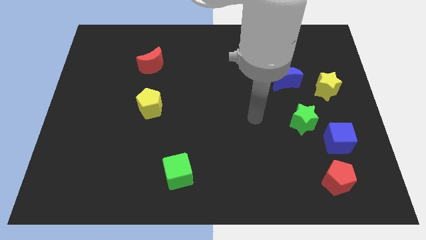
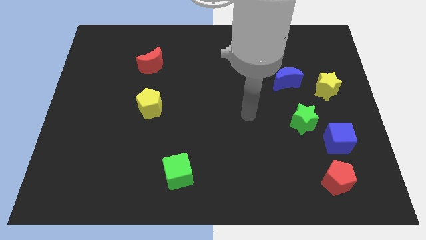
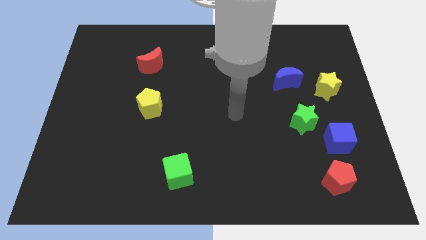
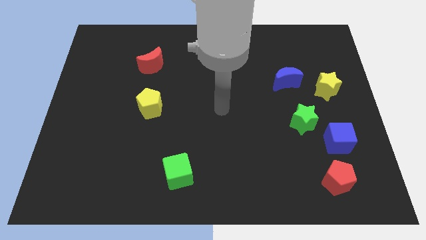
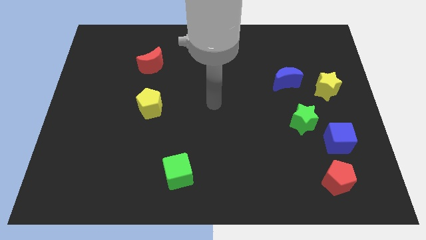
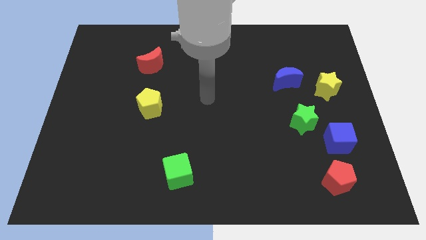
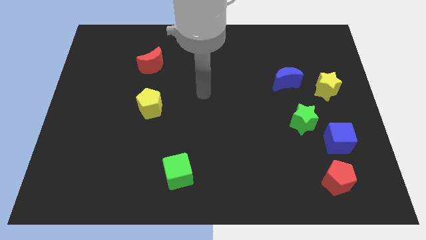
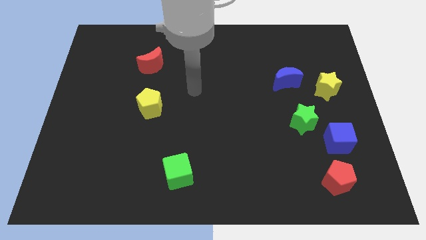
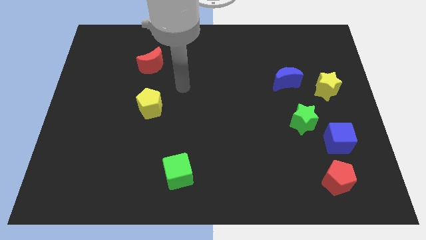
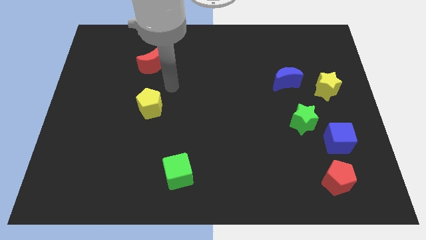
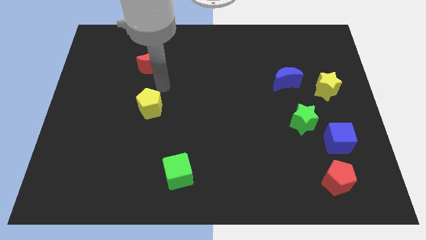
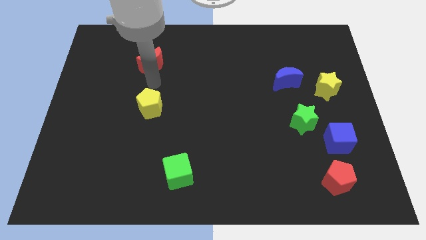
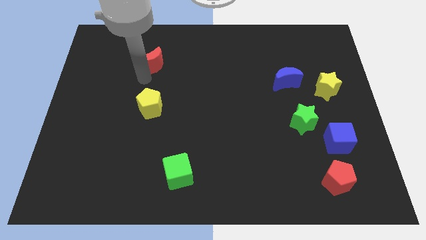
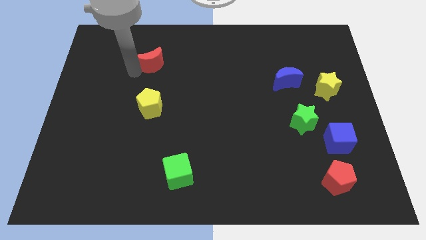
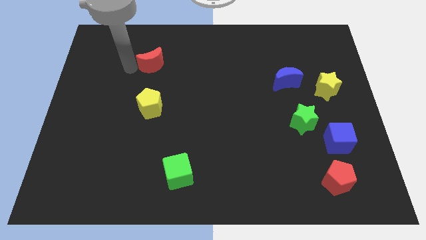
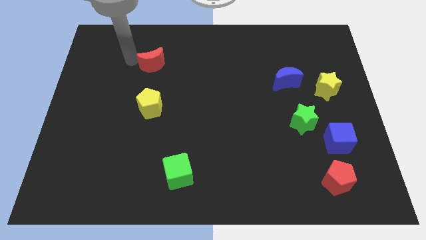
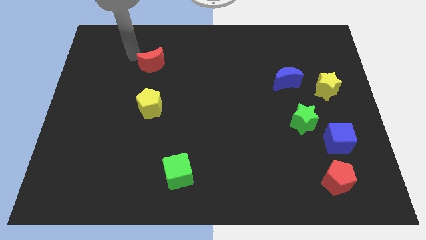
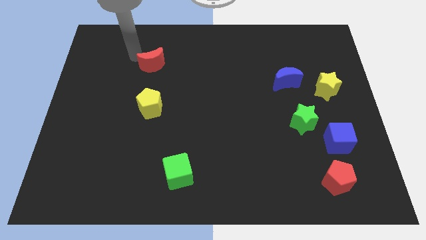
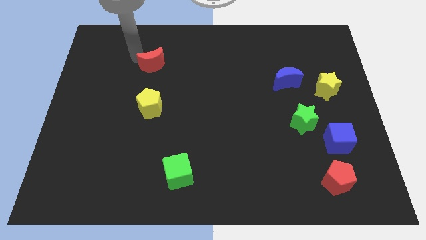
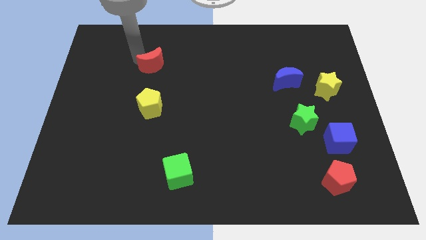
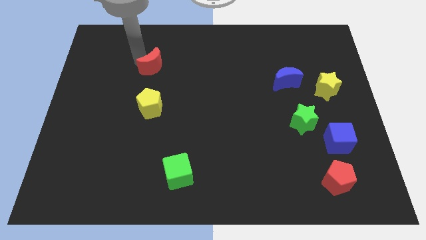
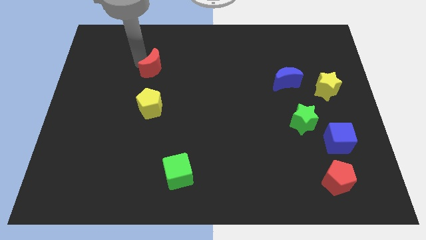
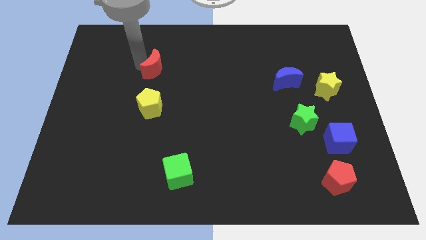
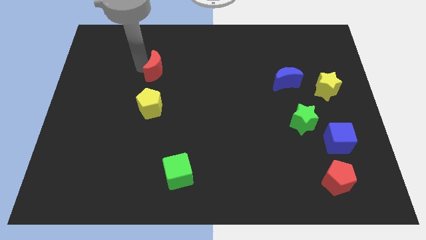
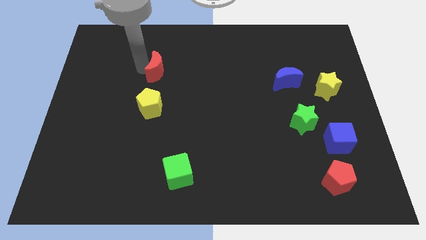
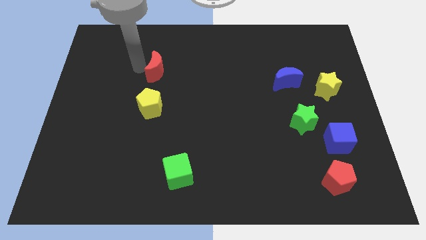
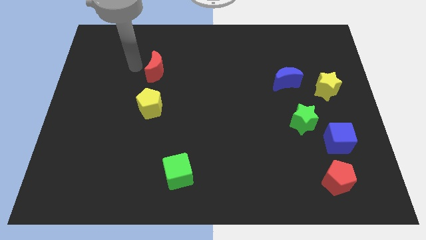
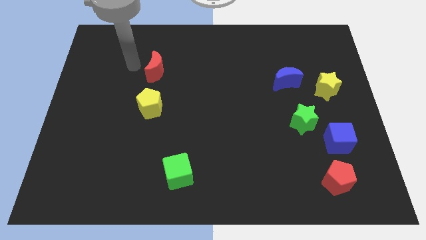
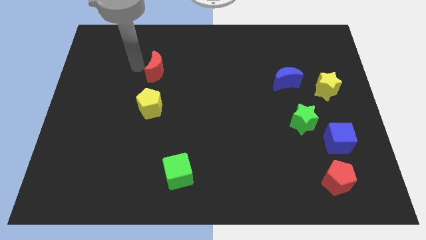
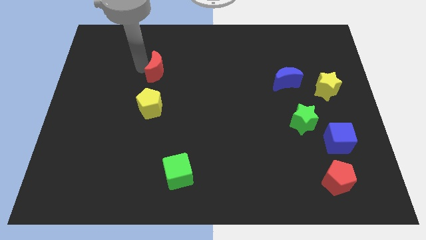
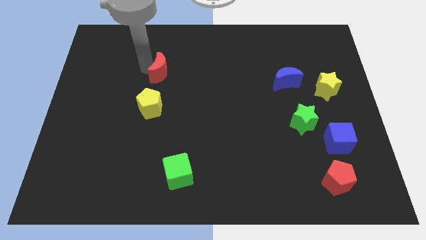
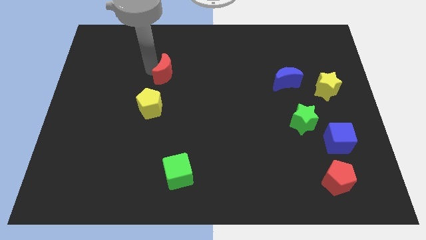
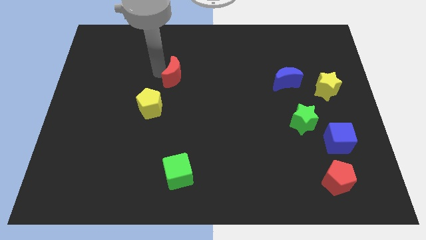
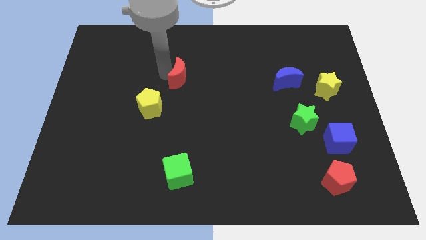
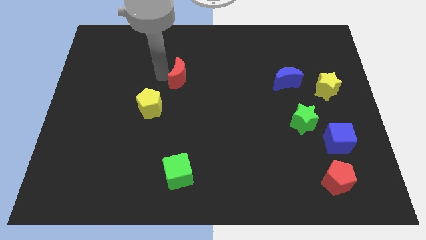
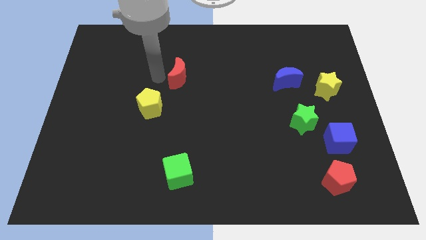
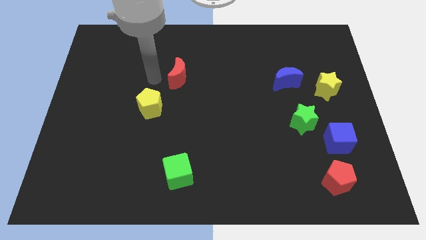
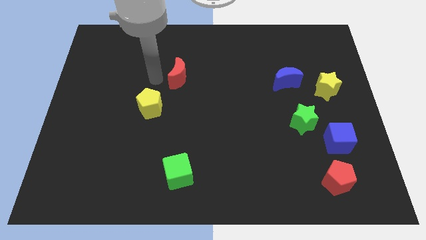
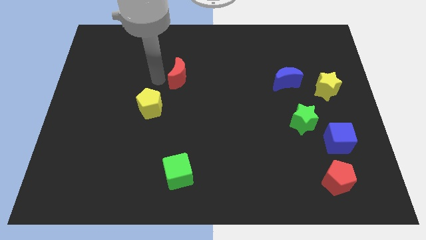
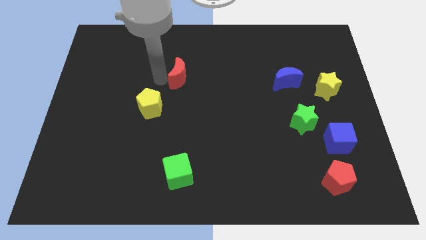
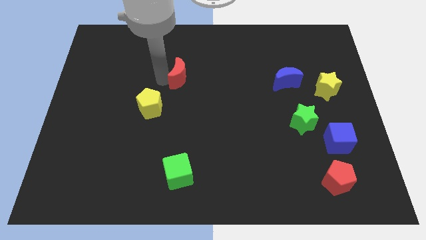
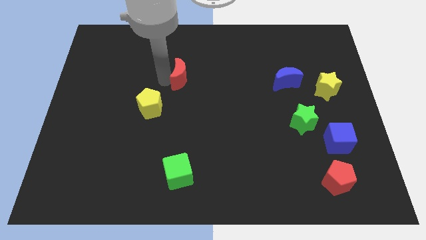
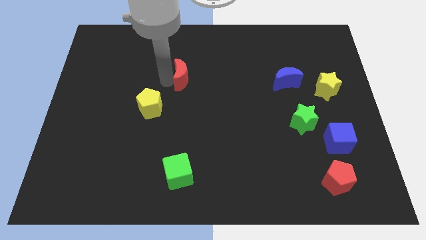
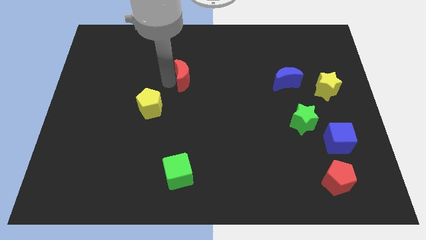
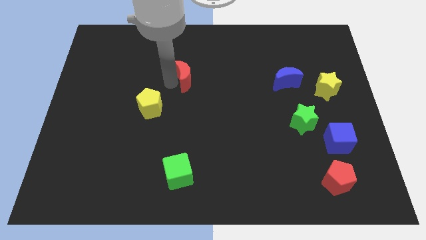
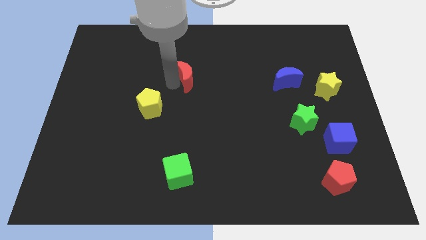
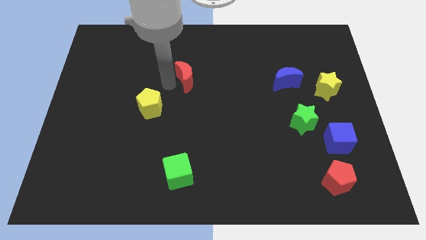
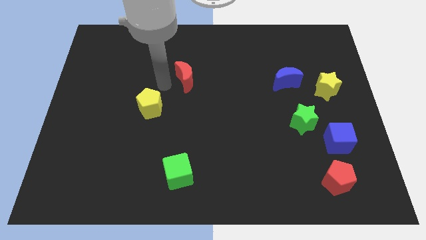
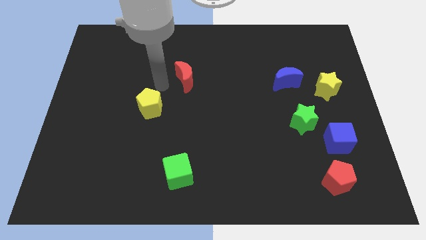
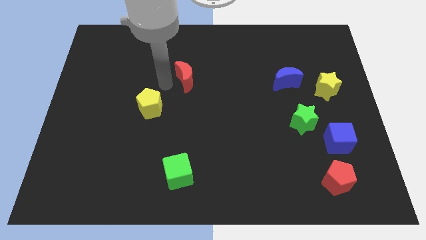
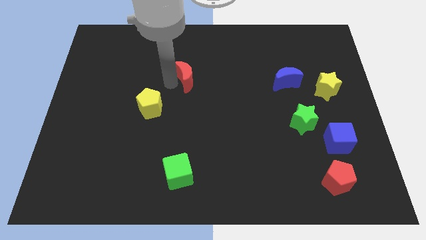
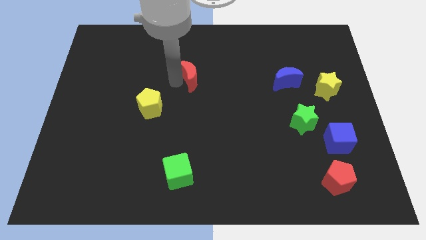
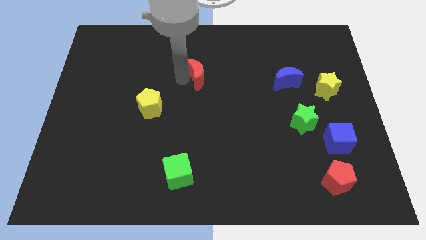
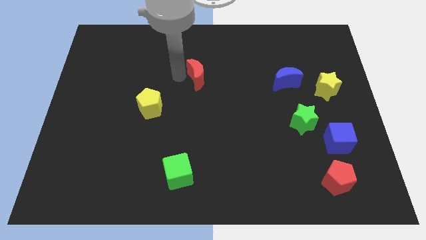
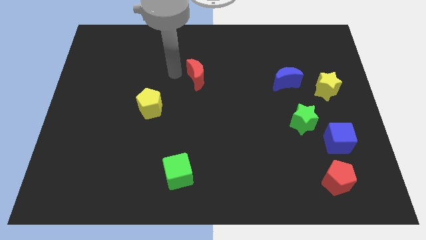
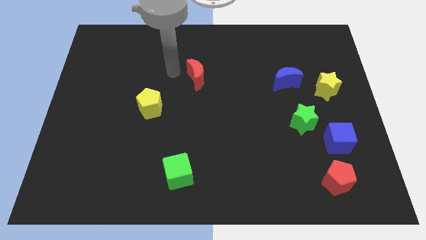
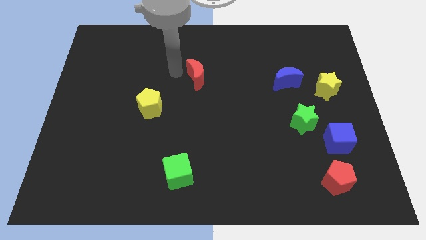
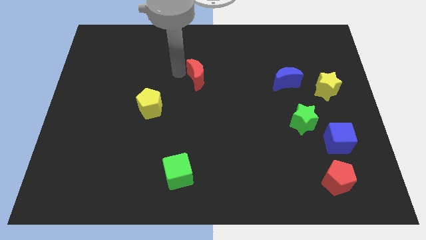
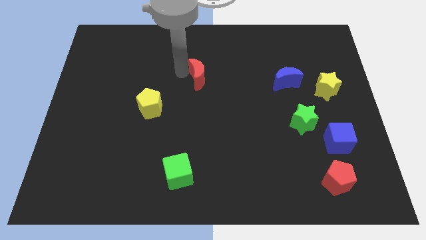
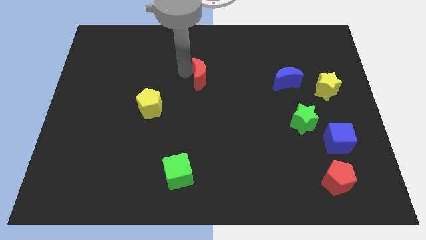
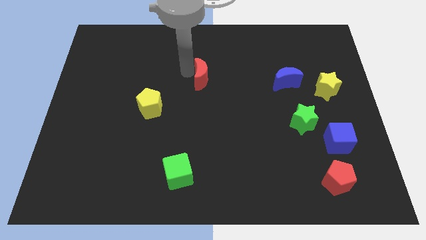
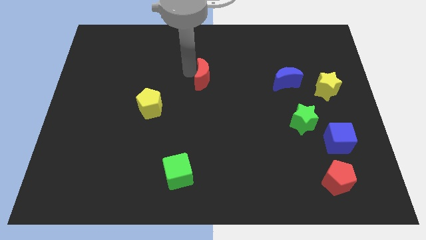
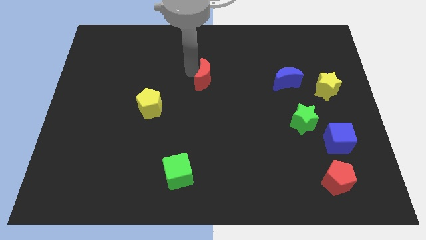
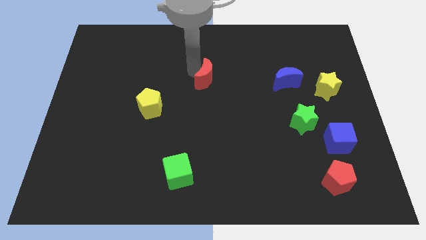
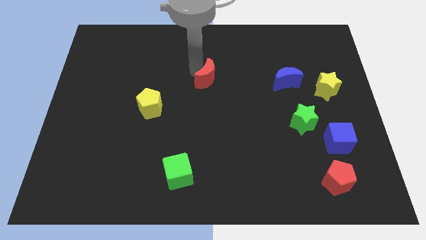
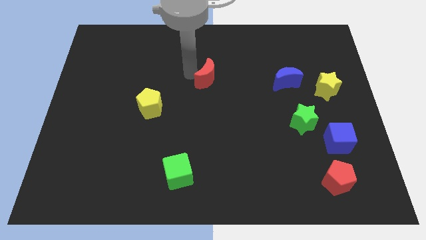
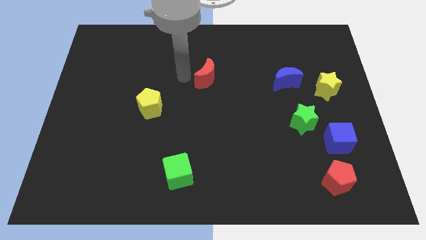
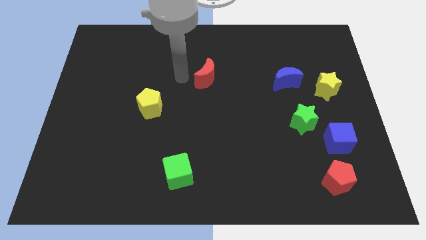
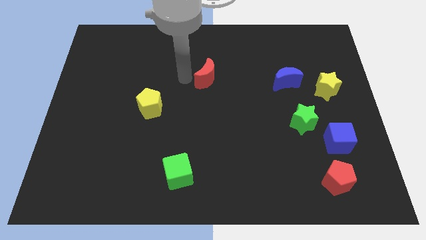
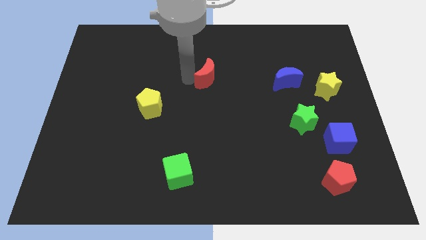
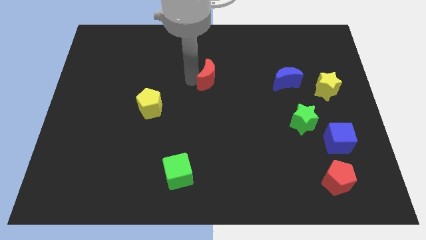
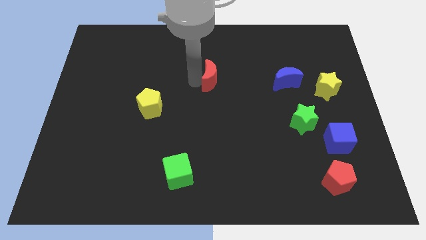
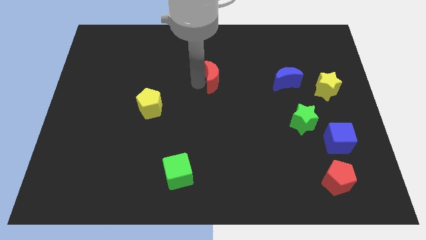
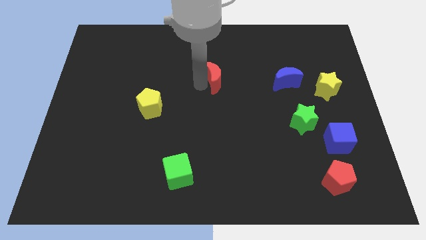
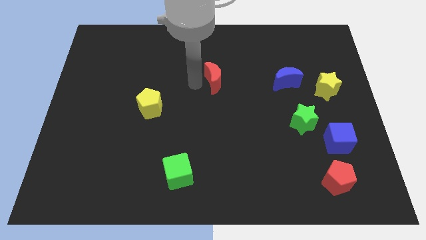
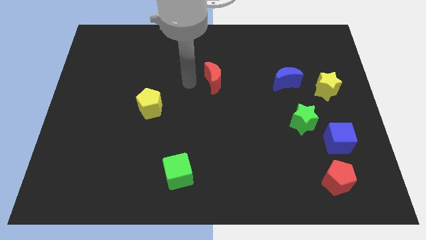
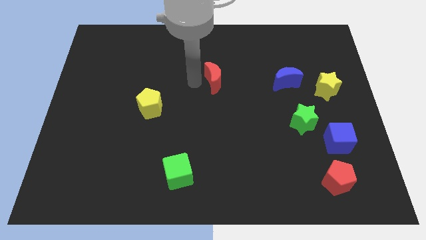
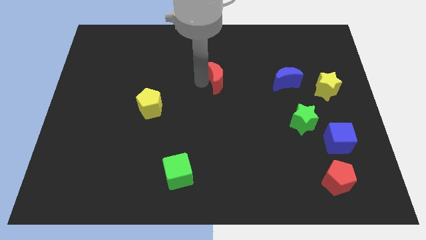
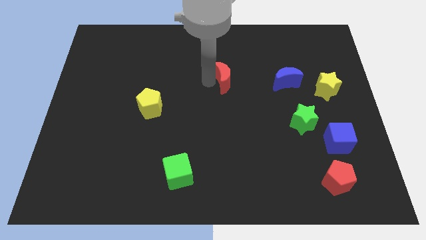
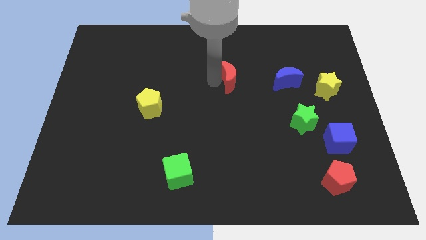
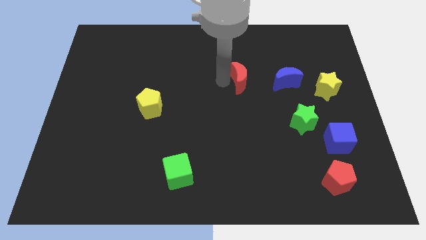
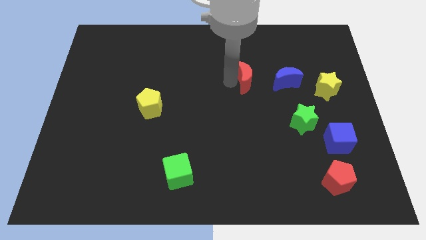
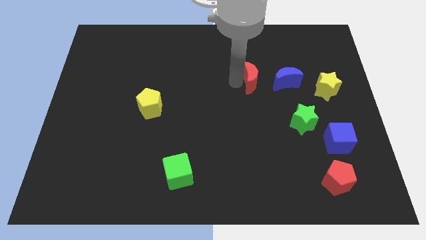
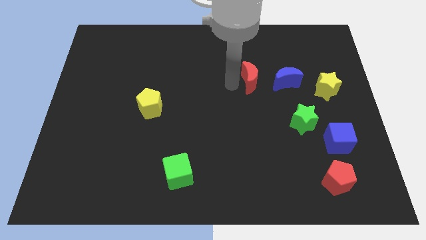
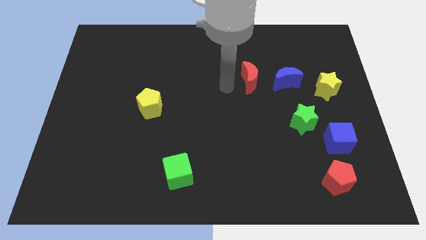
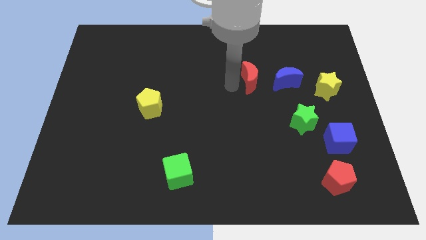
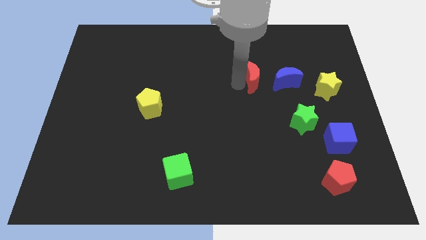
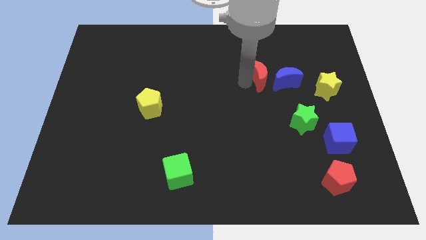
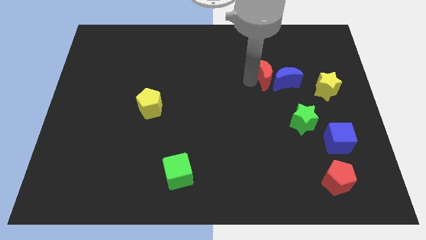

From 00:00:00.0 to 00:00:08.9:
put the red moon towards the blue moon
